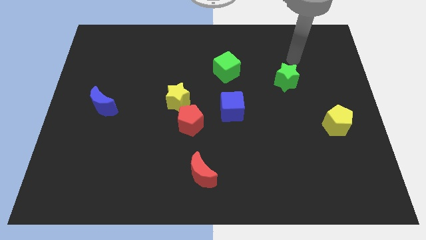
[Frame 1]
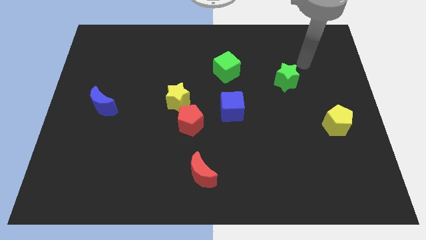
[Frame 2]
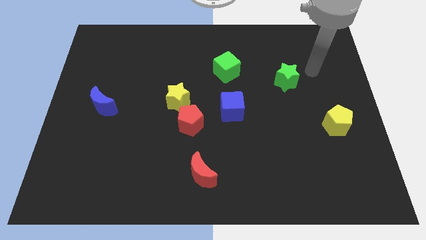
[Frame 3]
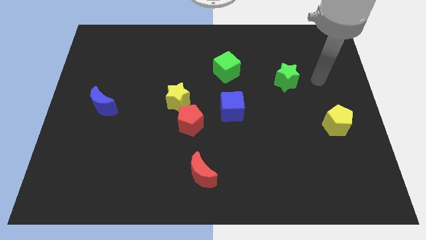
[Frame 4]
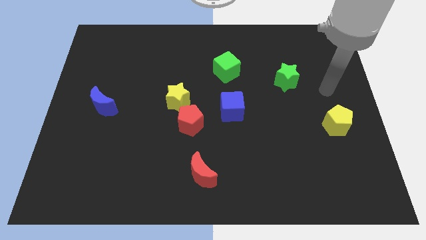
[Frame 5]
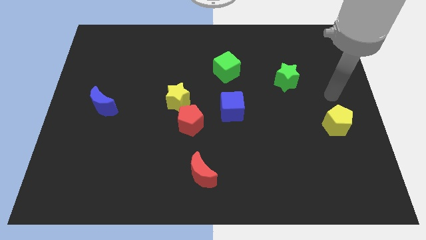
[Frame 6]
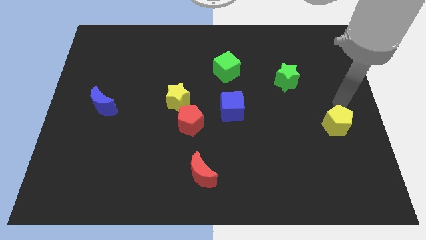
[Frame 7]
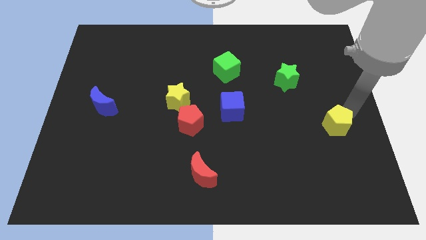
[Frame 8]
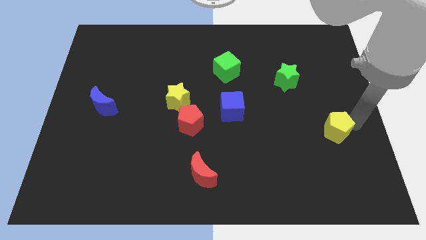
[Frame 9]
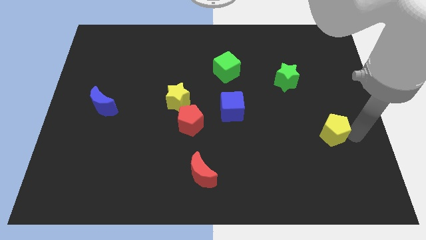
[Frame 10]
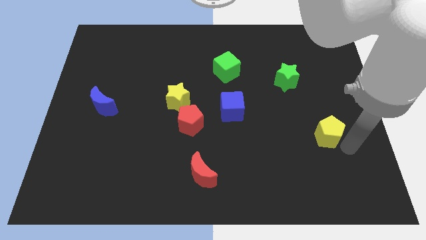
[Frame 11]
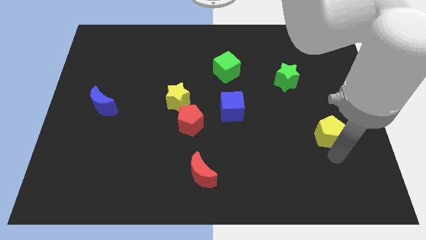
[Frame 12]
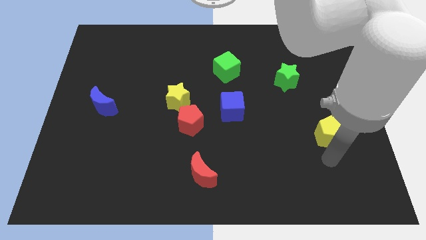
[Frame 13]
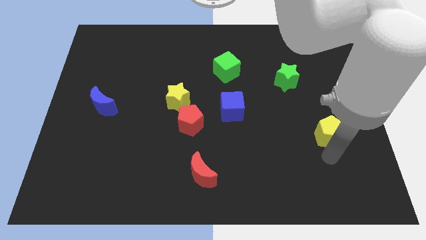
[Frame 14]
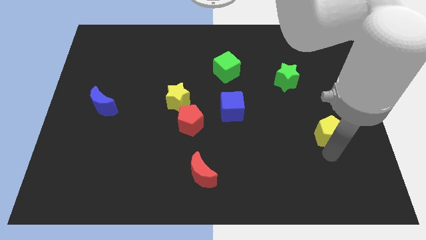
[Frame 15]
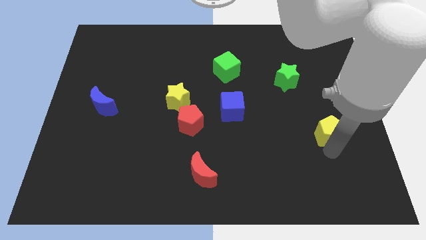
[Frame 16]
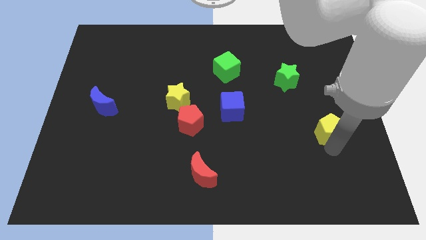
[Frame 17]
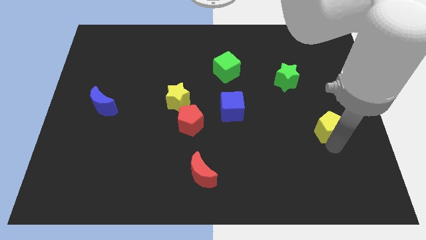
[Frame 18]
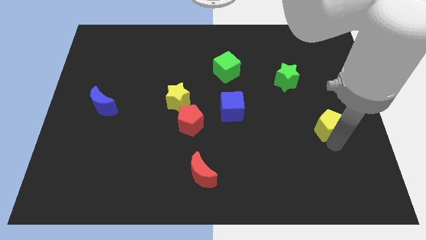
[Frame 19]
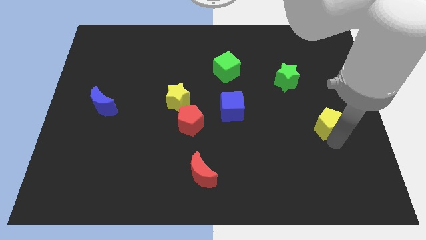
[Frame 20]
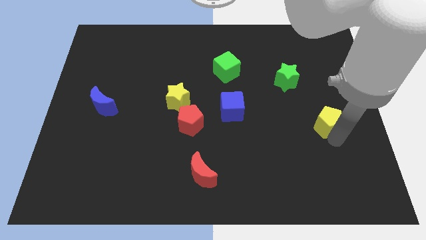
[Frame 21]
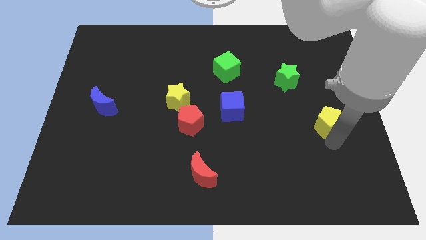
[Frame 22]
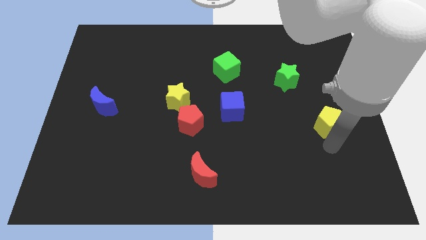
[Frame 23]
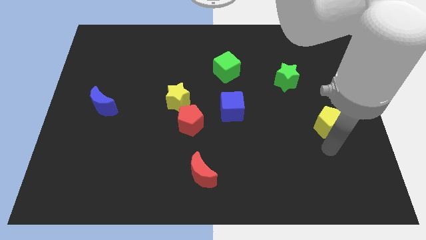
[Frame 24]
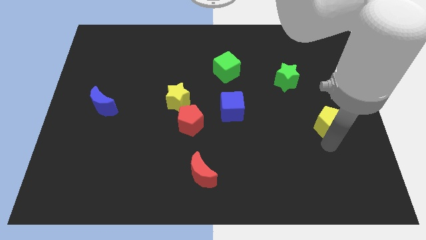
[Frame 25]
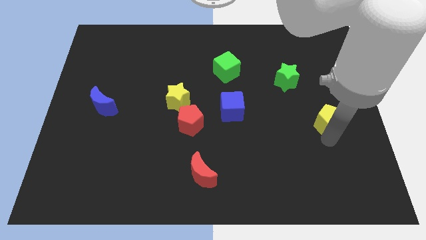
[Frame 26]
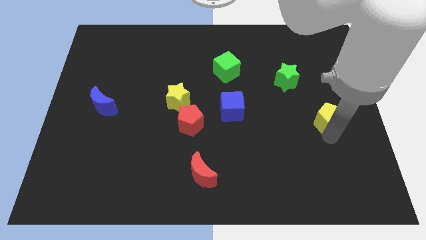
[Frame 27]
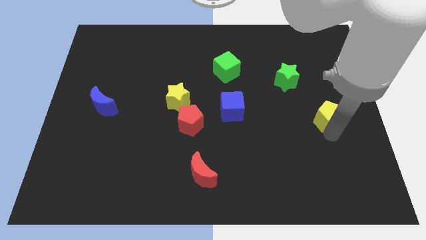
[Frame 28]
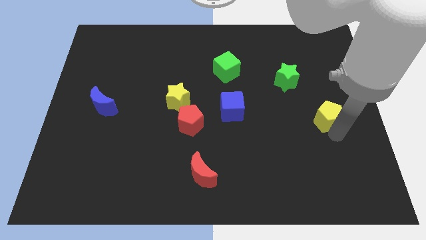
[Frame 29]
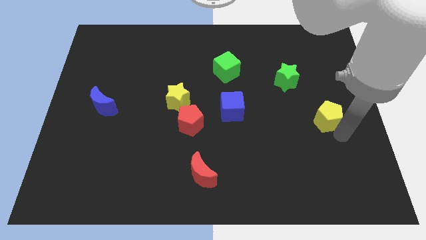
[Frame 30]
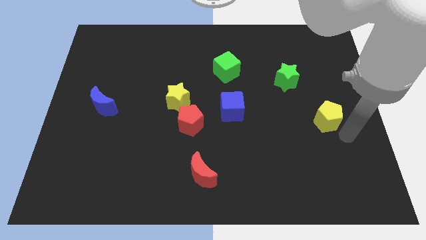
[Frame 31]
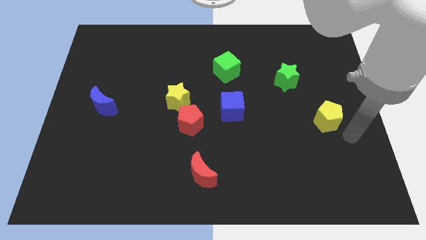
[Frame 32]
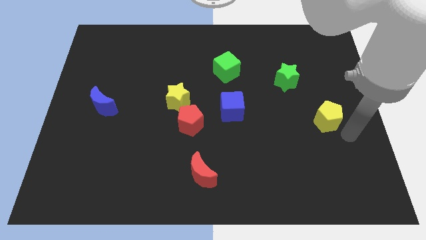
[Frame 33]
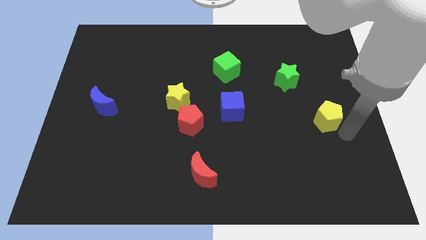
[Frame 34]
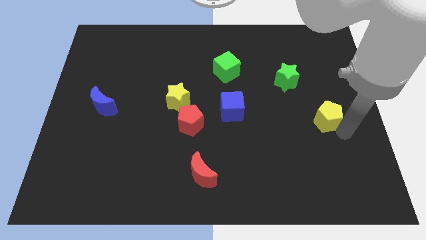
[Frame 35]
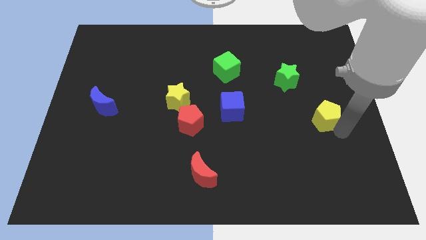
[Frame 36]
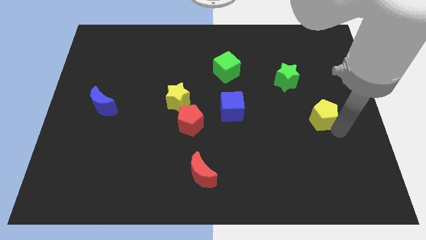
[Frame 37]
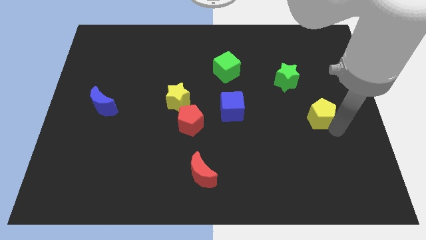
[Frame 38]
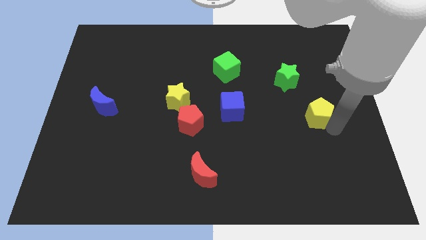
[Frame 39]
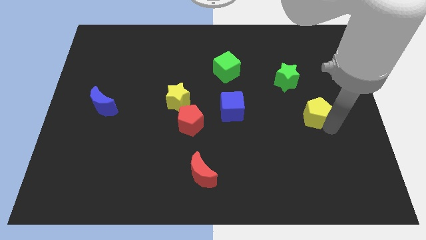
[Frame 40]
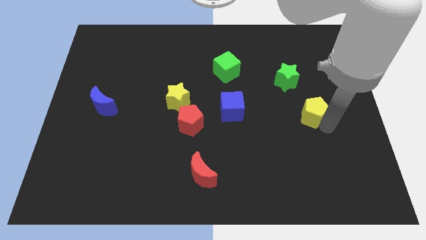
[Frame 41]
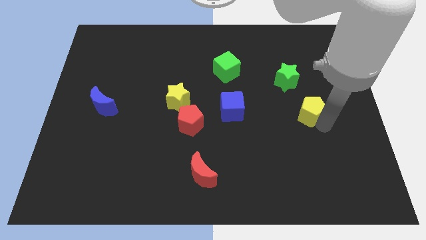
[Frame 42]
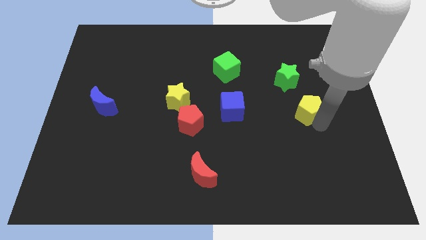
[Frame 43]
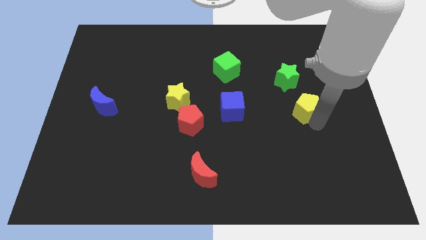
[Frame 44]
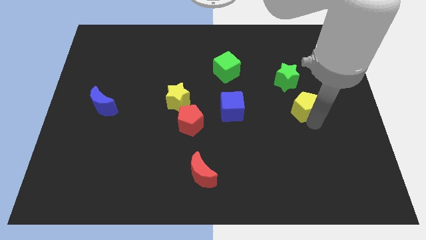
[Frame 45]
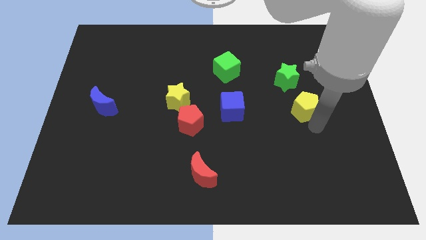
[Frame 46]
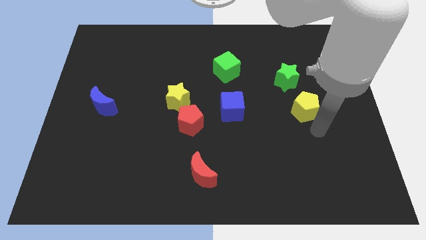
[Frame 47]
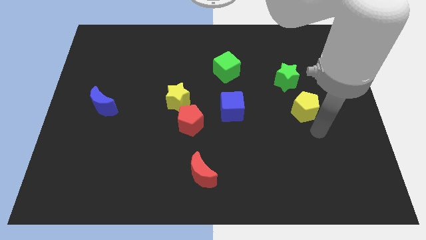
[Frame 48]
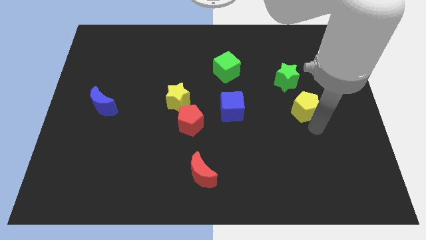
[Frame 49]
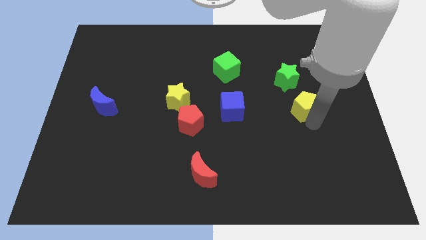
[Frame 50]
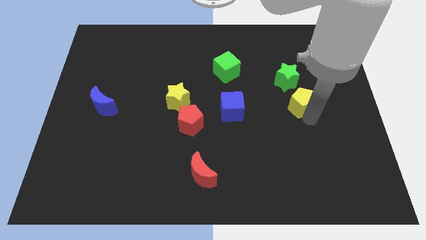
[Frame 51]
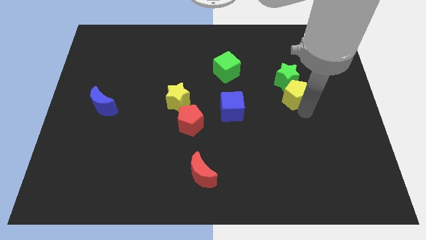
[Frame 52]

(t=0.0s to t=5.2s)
slide the yellow pentagon towards the green star

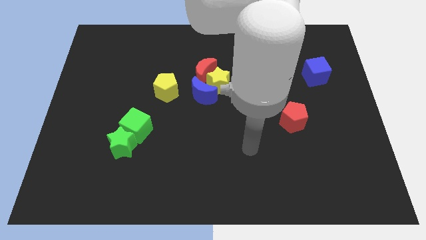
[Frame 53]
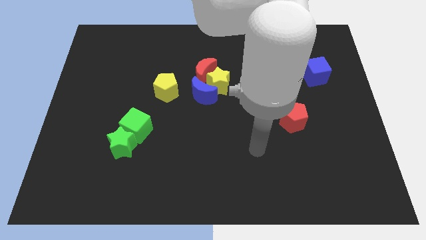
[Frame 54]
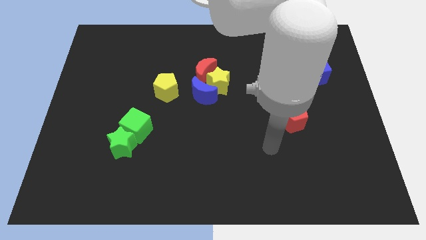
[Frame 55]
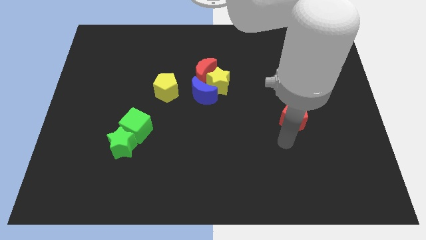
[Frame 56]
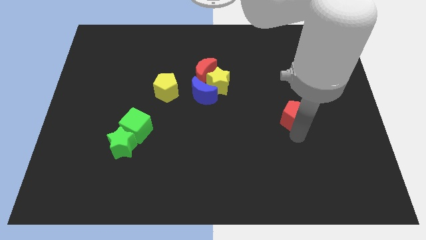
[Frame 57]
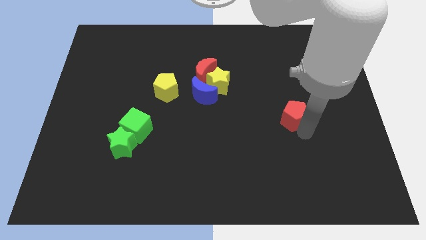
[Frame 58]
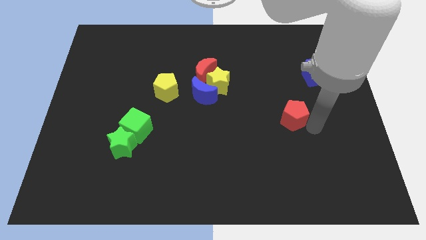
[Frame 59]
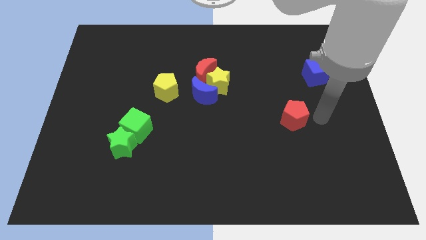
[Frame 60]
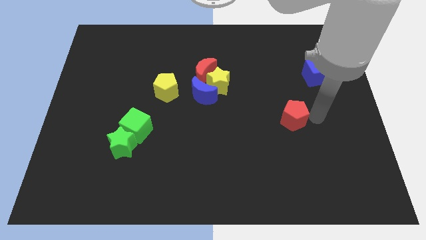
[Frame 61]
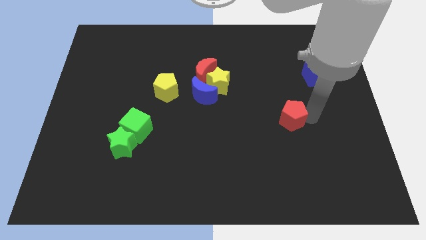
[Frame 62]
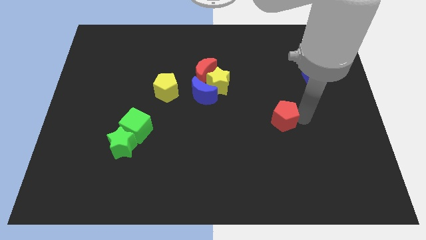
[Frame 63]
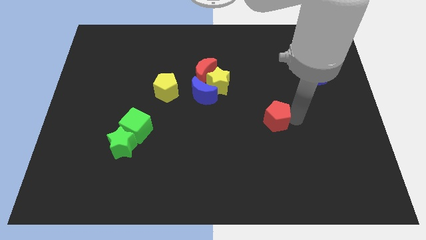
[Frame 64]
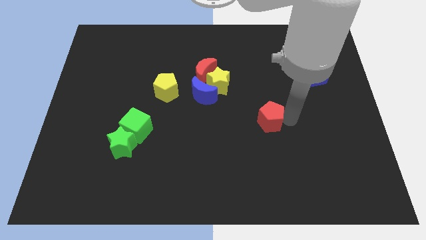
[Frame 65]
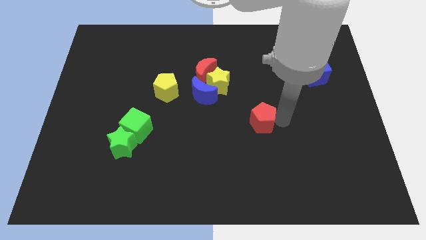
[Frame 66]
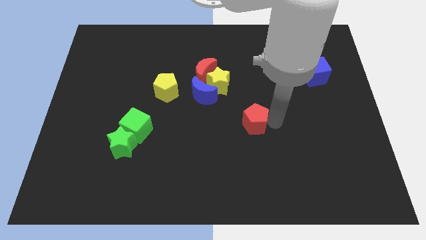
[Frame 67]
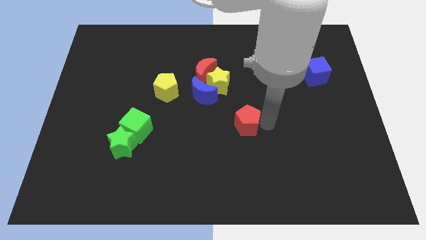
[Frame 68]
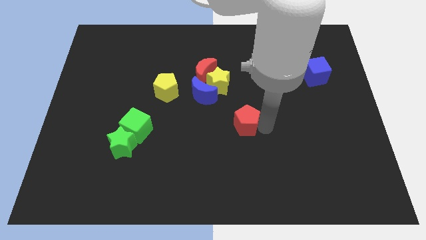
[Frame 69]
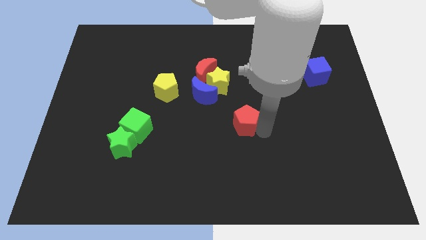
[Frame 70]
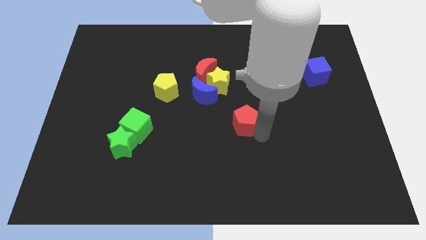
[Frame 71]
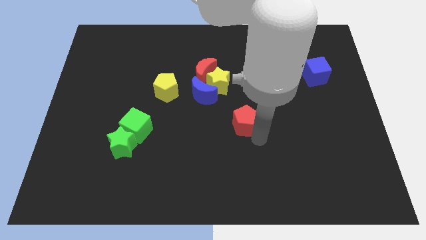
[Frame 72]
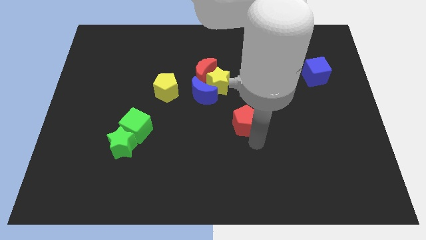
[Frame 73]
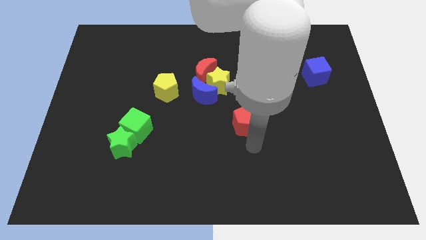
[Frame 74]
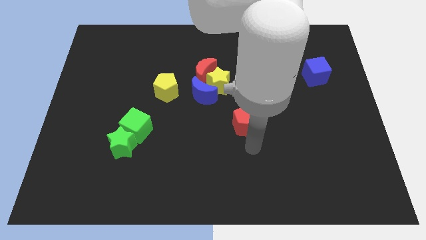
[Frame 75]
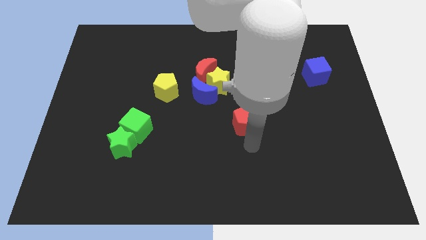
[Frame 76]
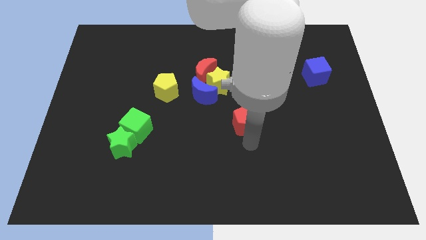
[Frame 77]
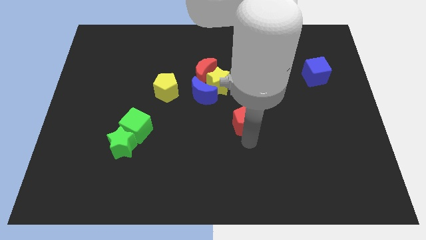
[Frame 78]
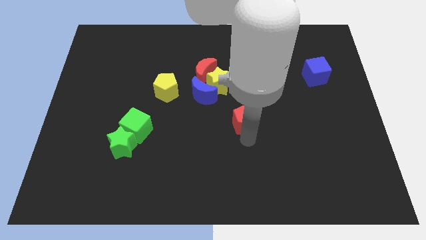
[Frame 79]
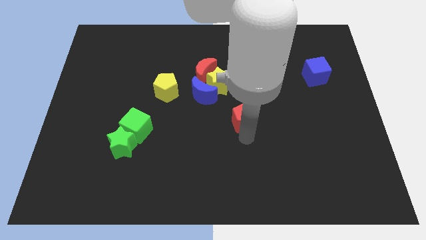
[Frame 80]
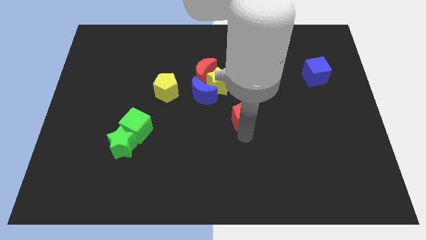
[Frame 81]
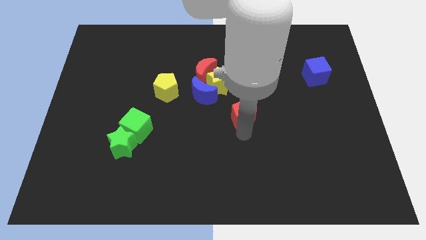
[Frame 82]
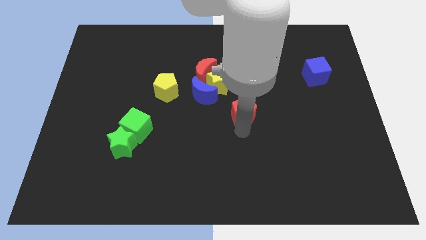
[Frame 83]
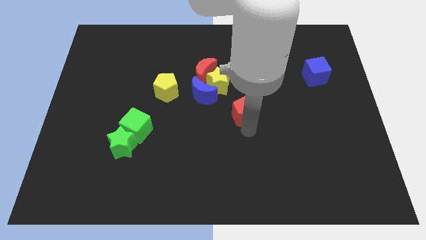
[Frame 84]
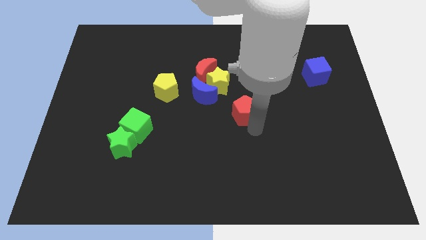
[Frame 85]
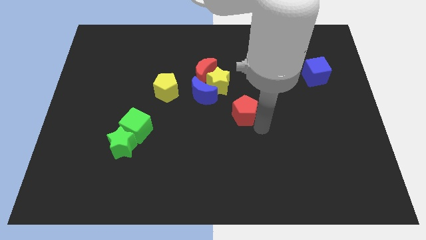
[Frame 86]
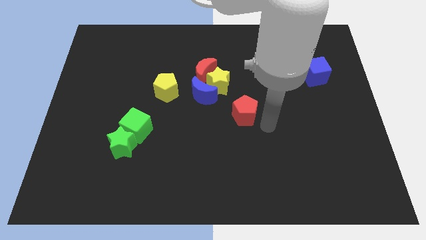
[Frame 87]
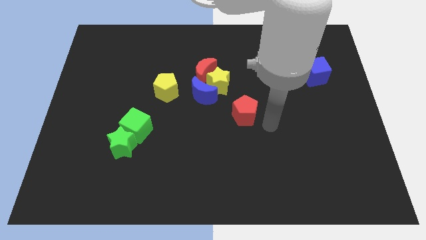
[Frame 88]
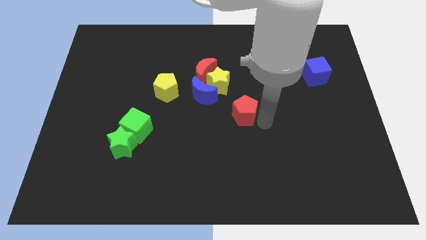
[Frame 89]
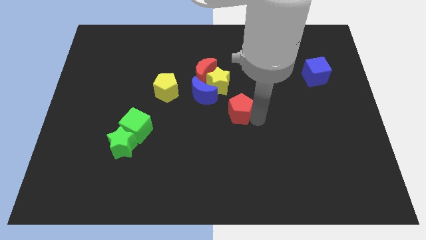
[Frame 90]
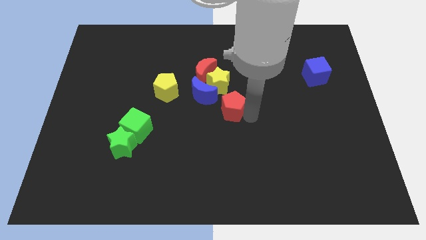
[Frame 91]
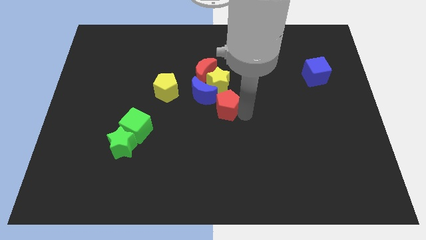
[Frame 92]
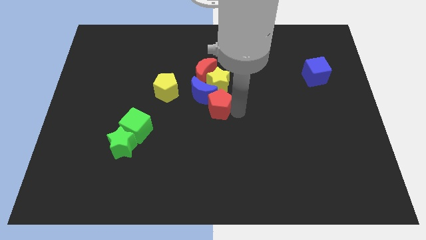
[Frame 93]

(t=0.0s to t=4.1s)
push the red pentagon next to the blue moon
